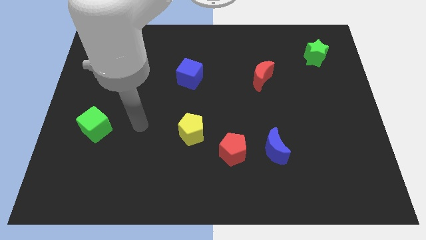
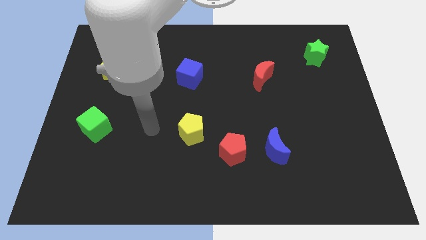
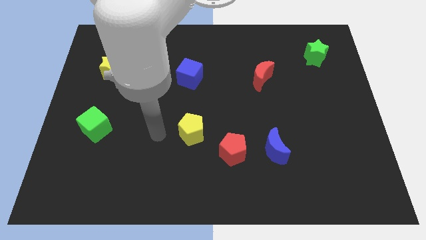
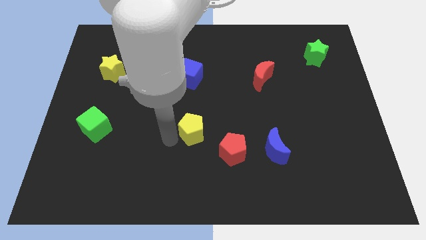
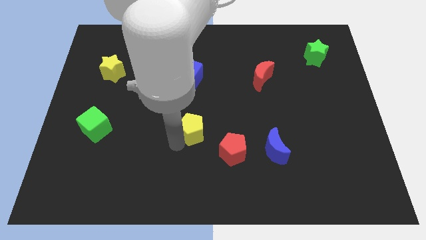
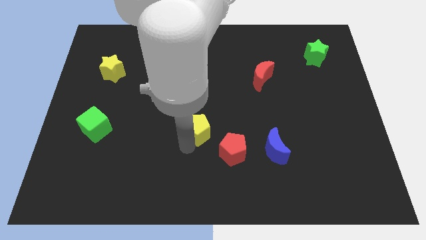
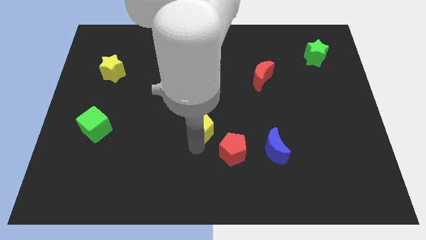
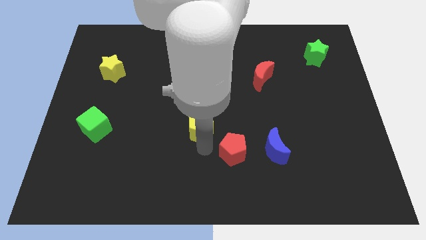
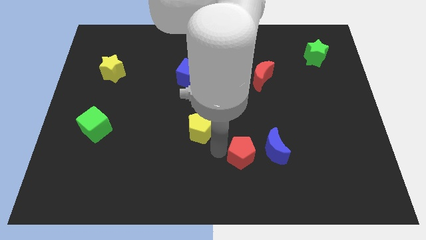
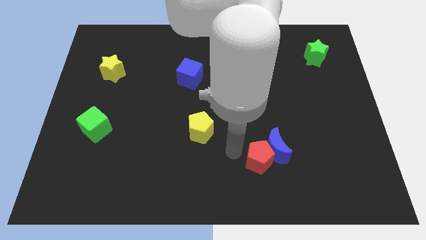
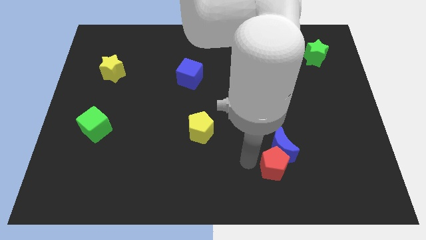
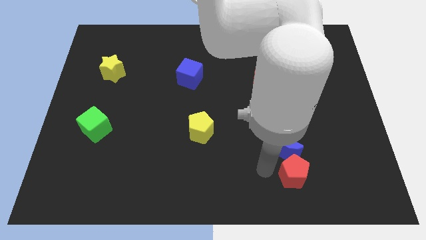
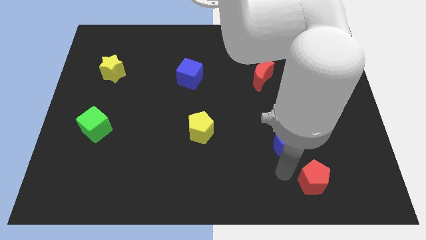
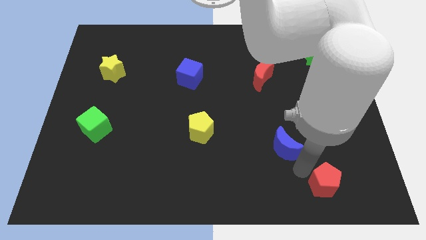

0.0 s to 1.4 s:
move the blue moon away from the red pentagon

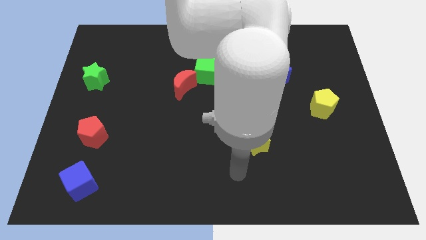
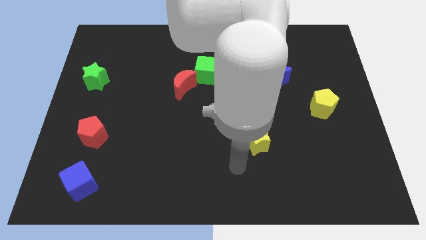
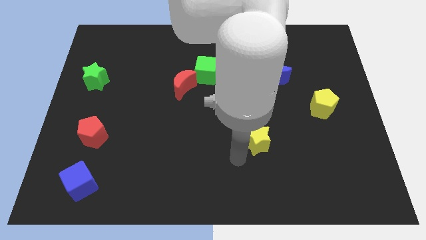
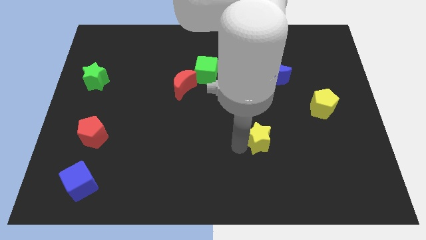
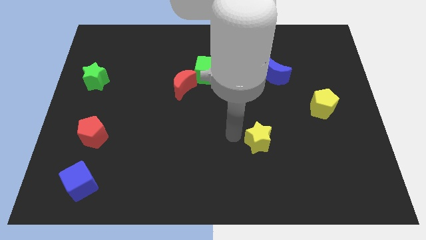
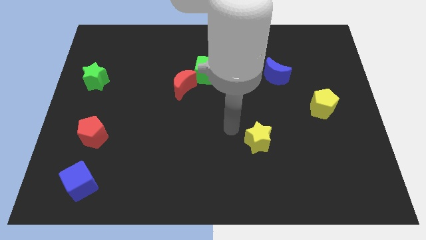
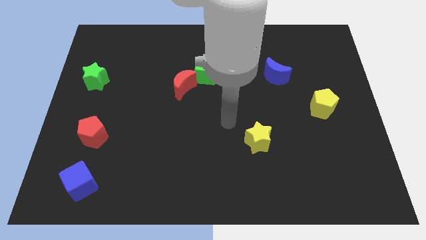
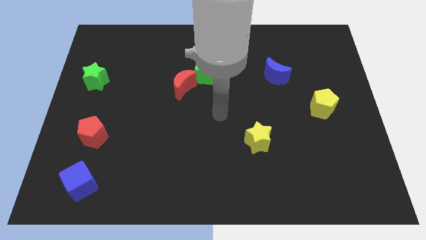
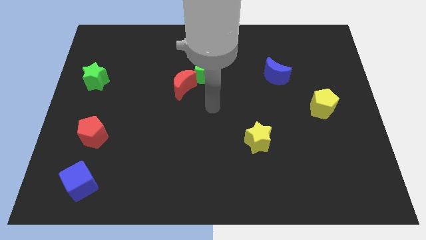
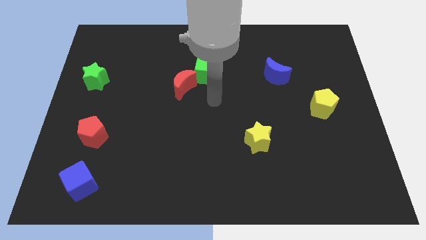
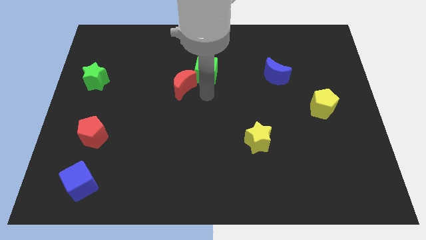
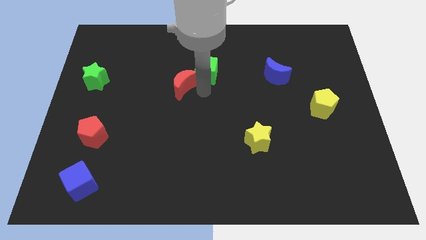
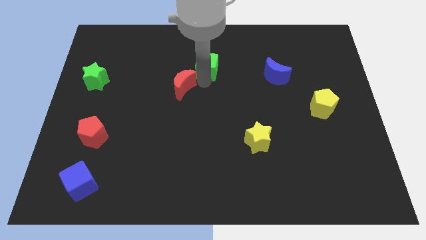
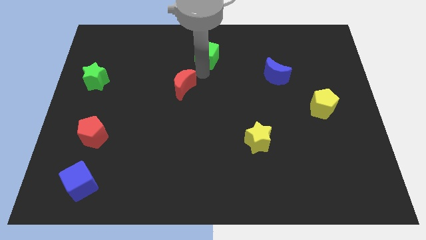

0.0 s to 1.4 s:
pull the red moon apart from the green cube

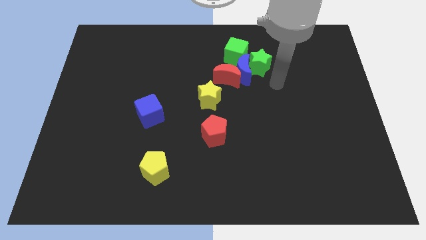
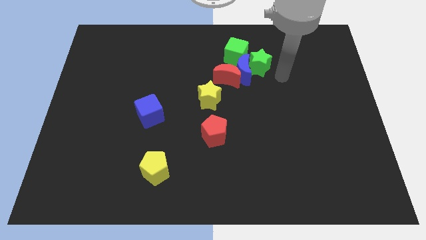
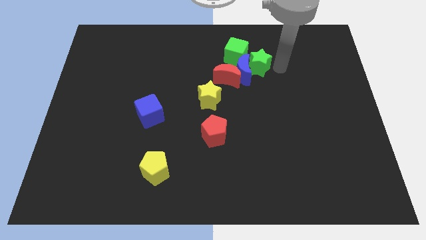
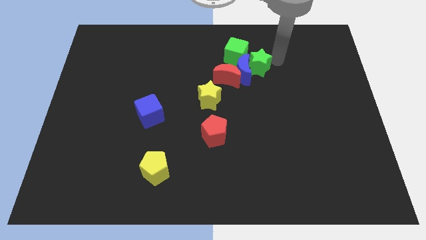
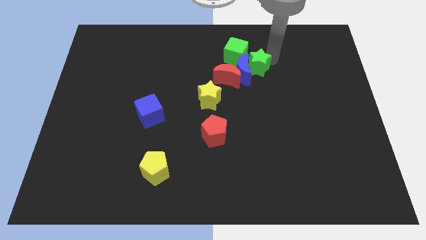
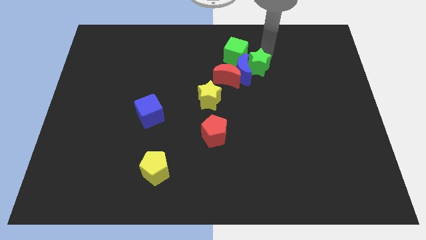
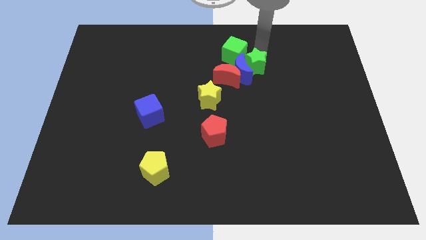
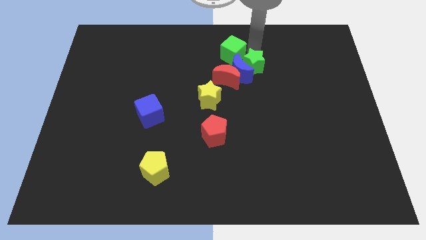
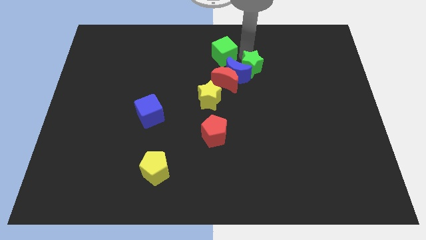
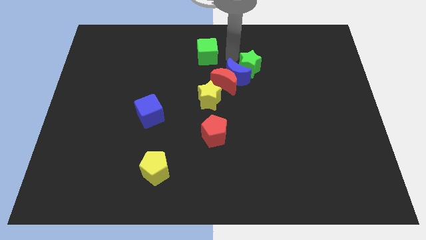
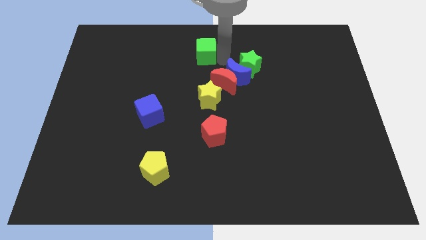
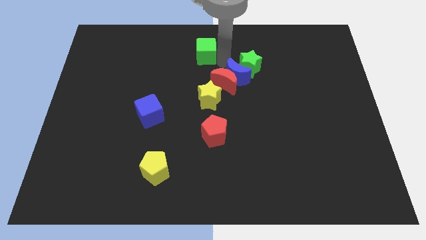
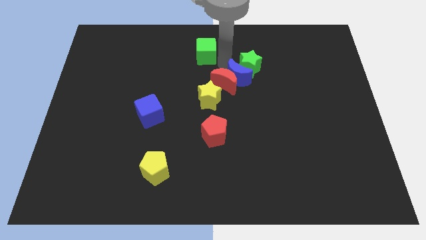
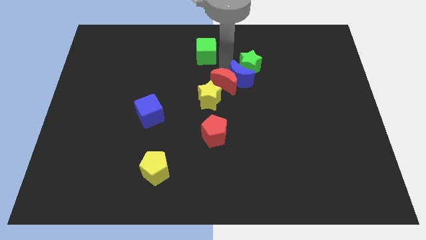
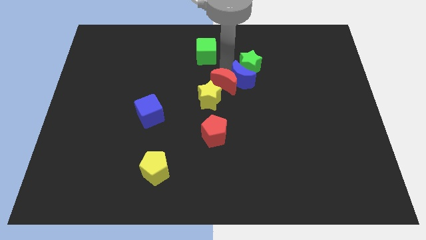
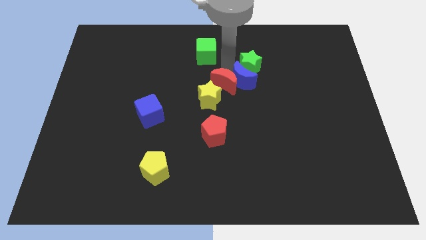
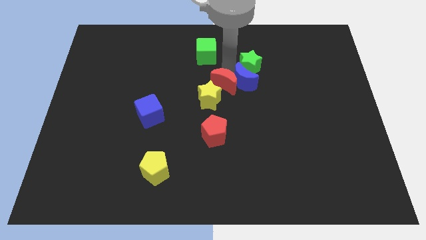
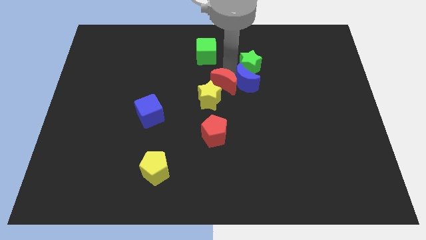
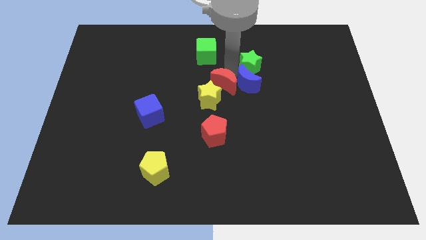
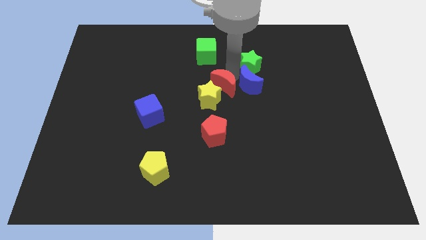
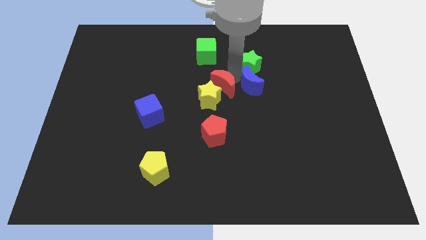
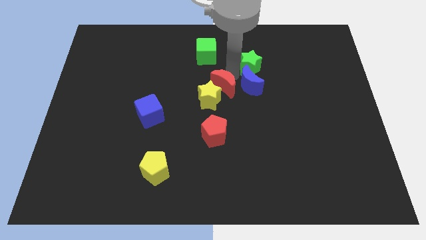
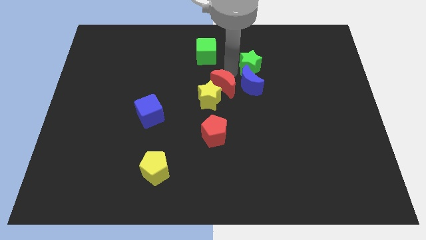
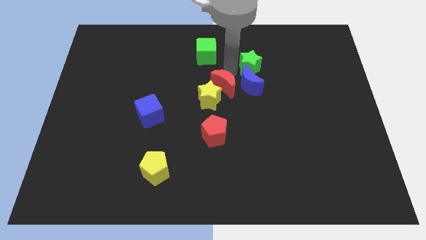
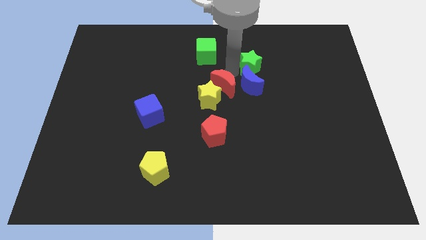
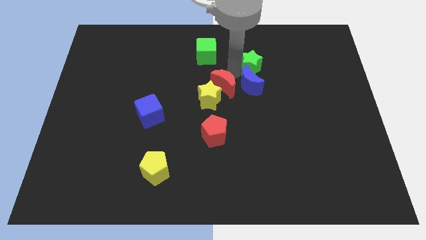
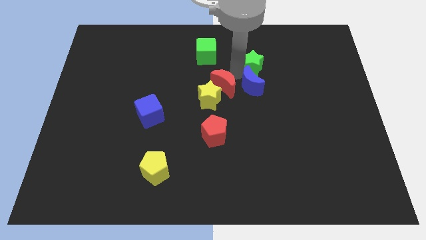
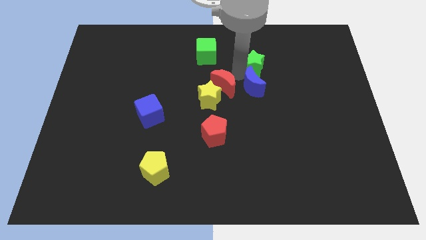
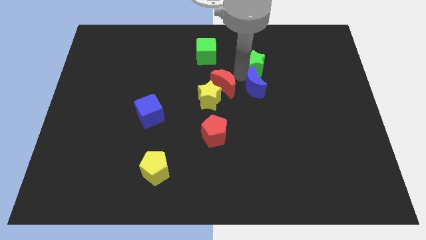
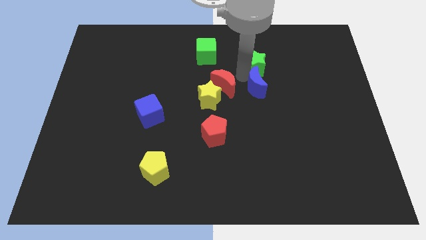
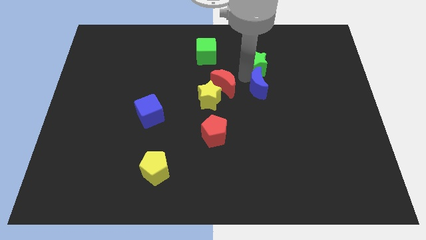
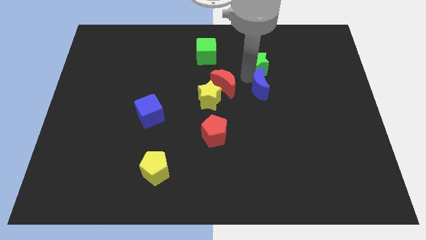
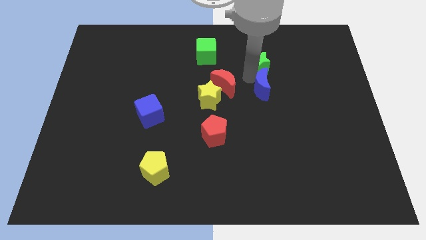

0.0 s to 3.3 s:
separate the blue moon from the group

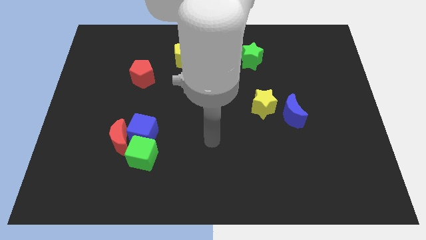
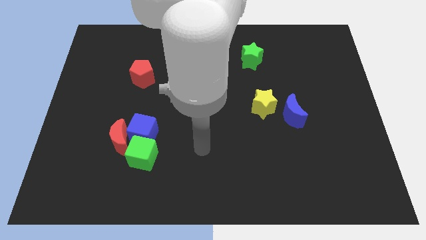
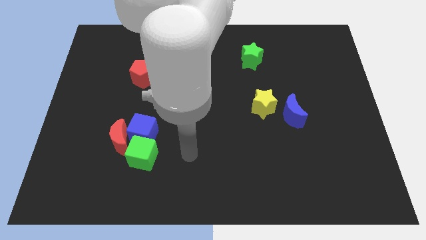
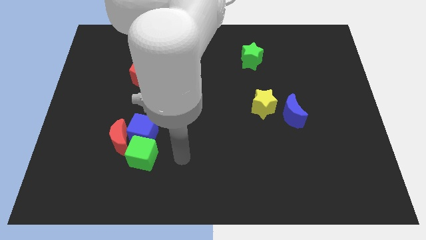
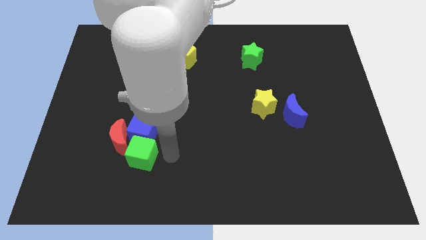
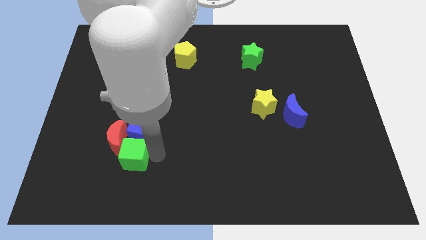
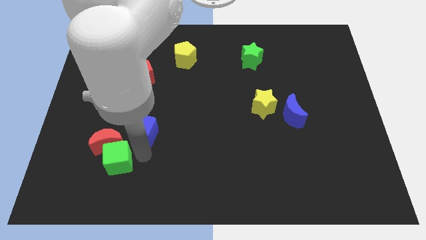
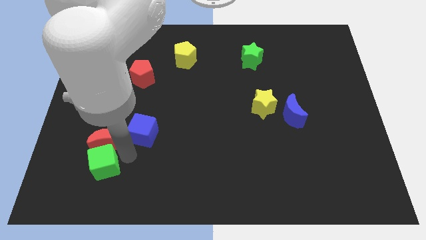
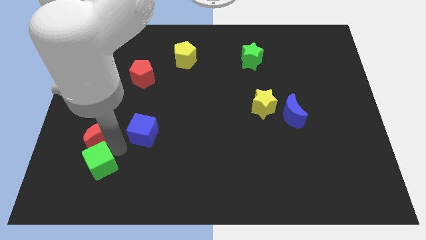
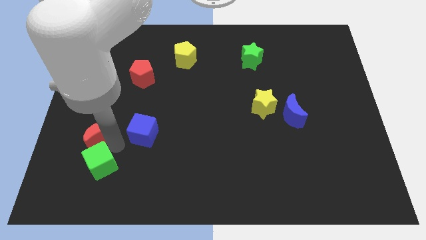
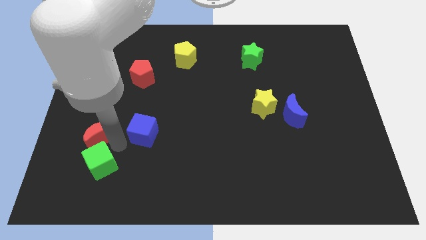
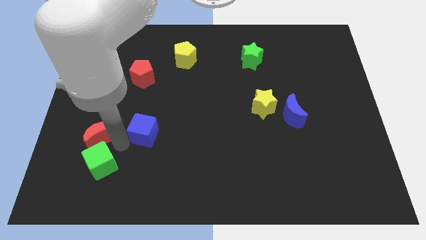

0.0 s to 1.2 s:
separate the blue cube from the red moon and green cube

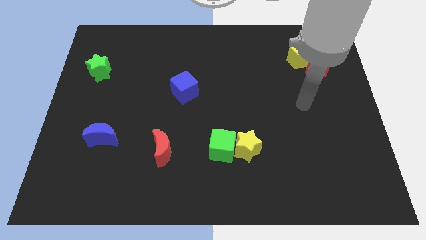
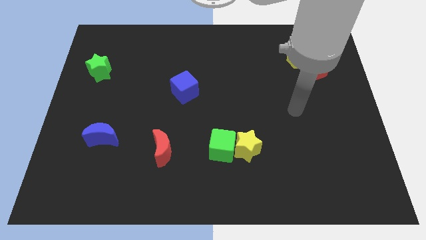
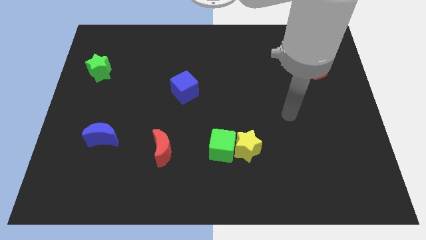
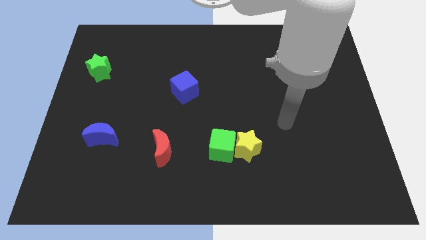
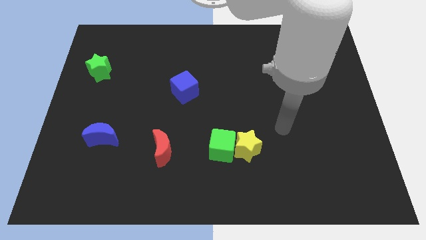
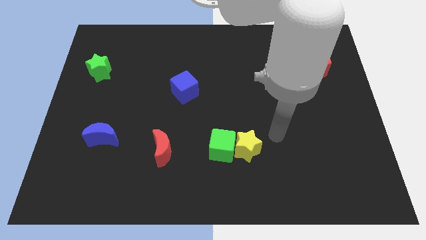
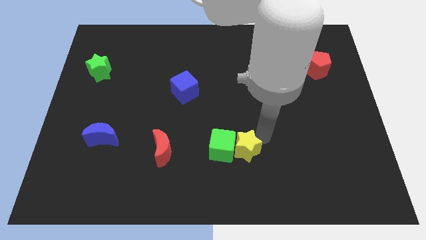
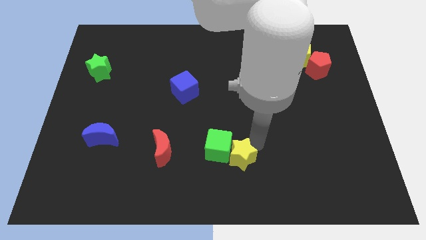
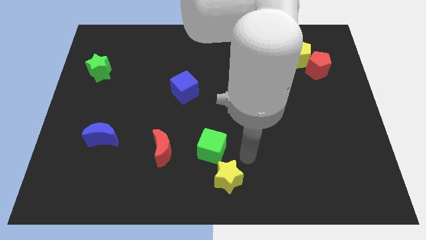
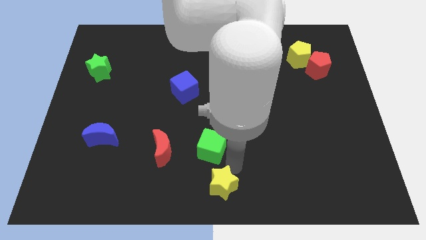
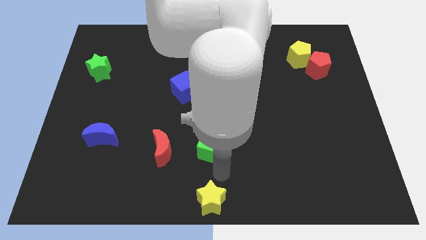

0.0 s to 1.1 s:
move the green cube away from the yellow star

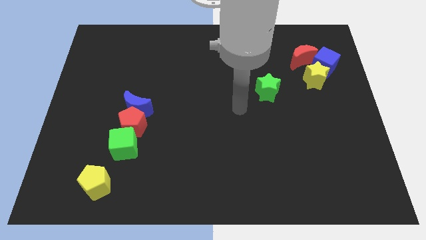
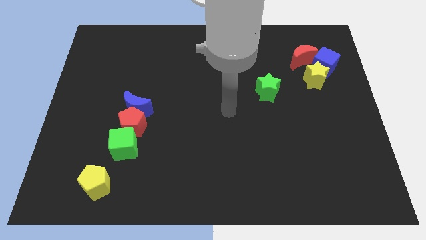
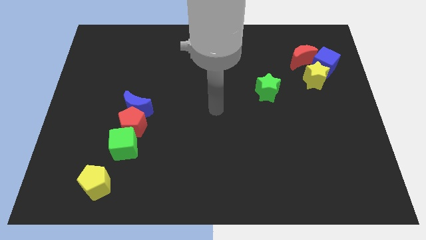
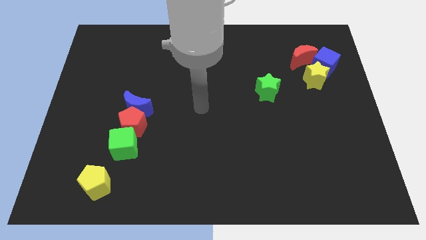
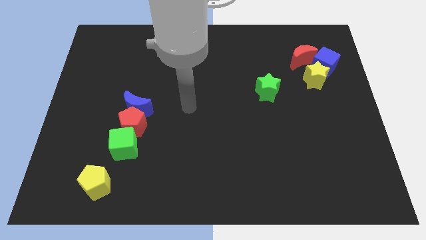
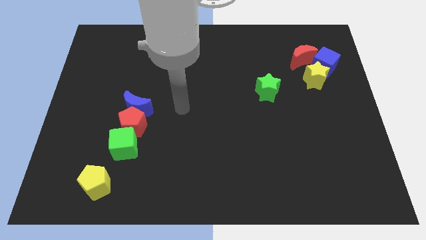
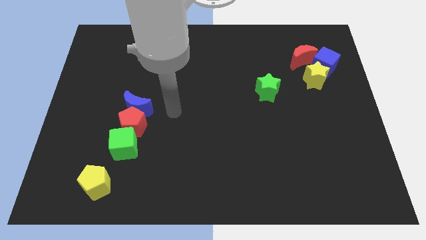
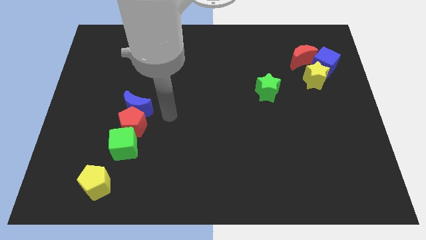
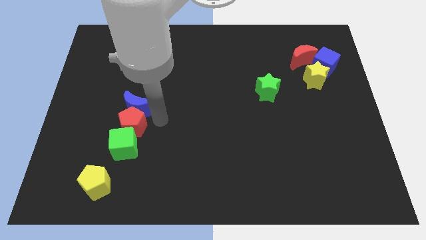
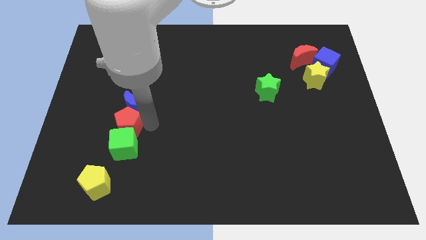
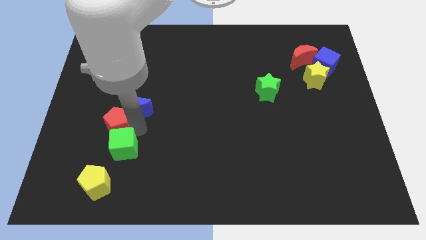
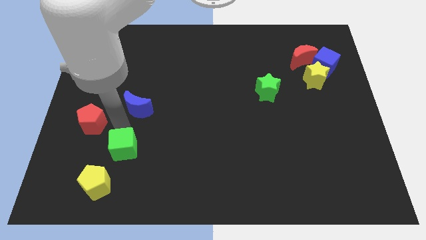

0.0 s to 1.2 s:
separate the blue moon from the red pentagon
